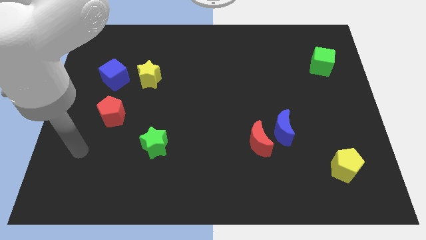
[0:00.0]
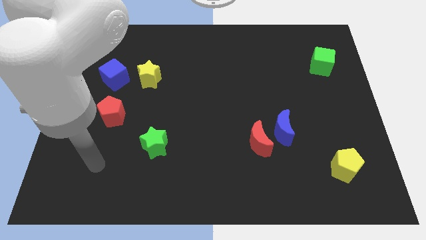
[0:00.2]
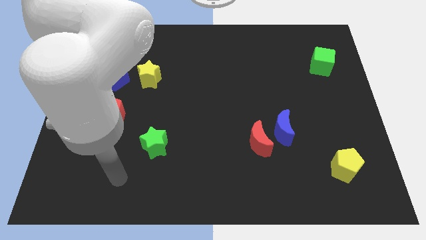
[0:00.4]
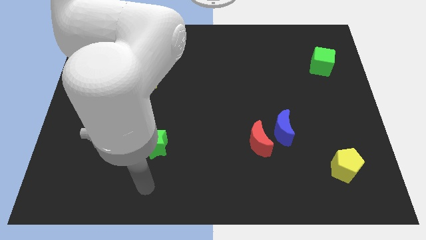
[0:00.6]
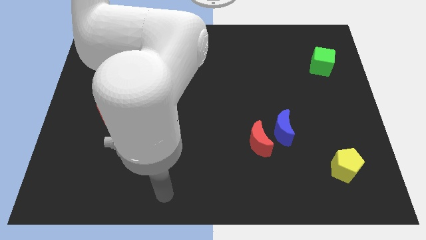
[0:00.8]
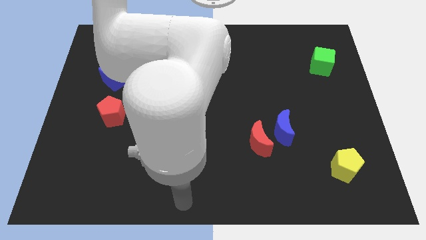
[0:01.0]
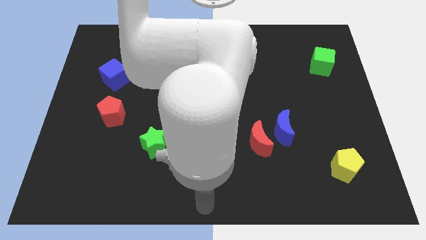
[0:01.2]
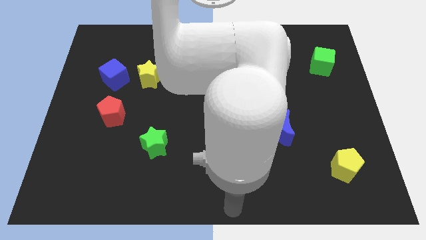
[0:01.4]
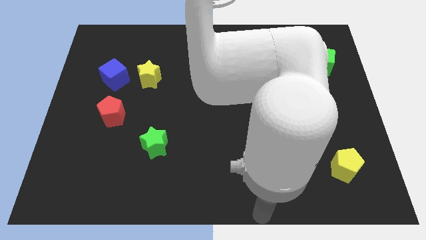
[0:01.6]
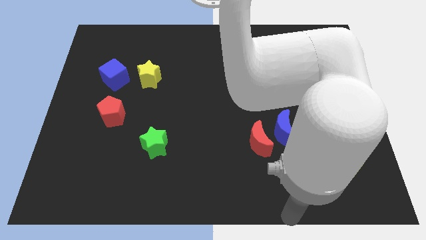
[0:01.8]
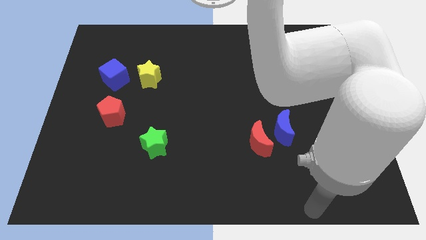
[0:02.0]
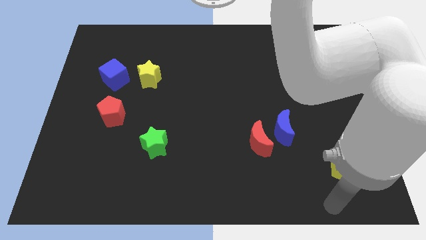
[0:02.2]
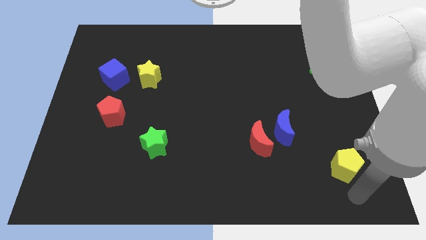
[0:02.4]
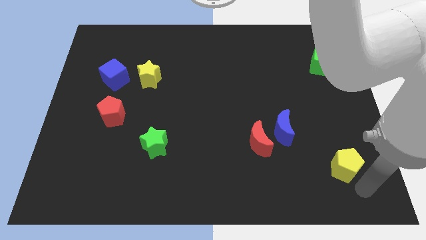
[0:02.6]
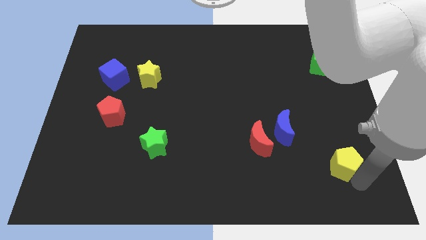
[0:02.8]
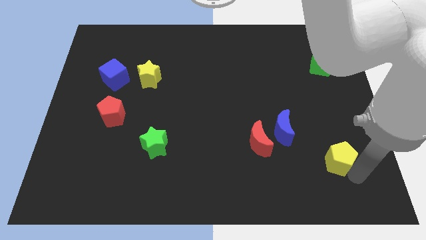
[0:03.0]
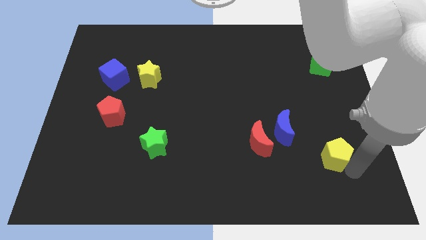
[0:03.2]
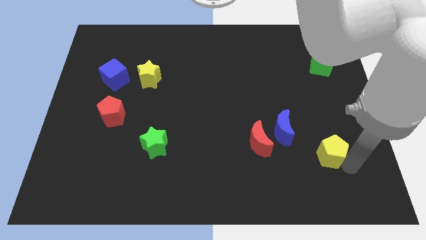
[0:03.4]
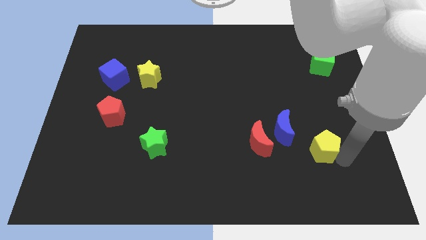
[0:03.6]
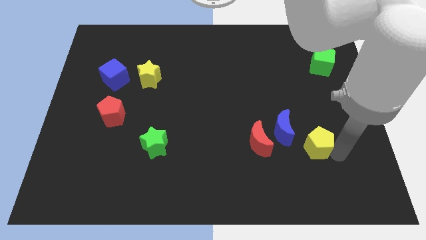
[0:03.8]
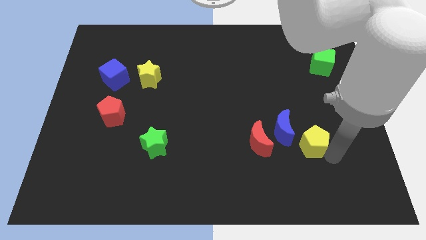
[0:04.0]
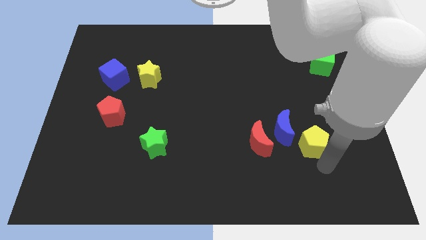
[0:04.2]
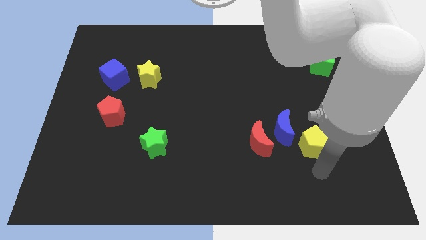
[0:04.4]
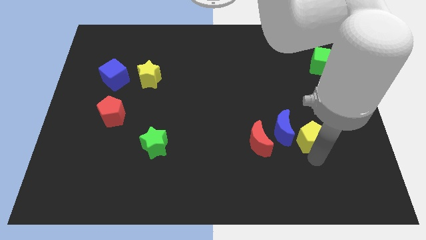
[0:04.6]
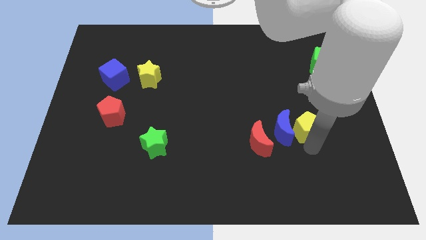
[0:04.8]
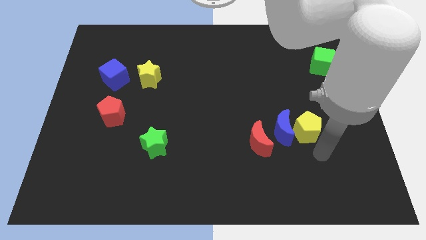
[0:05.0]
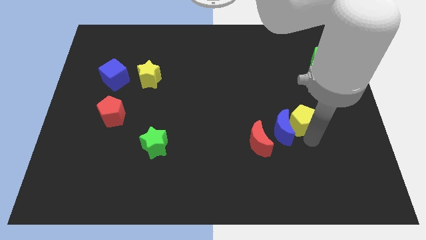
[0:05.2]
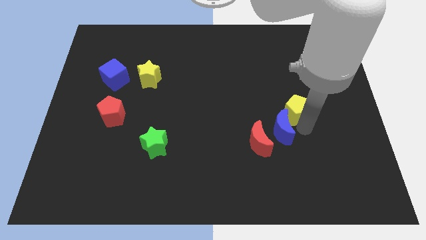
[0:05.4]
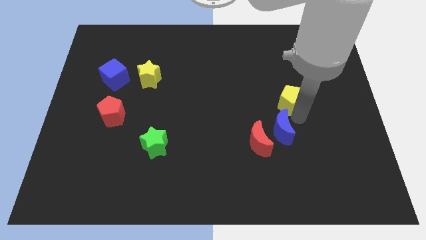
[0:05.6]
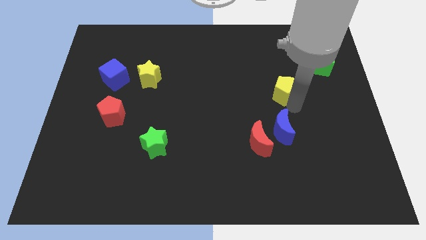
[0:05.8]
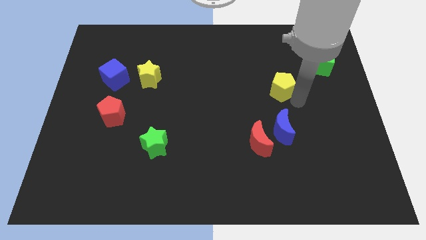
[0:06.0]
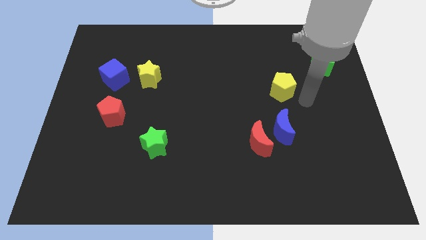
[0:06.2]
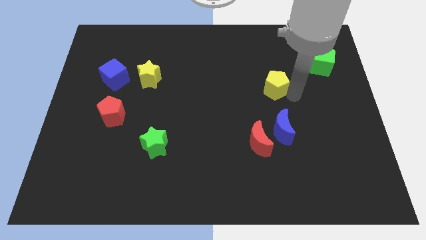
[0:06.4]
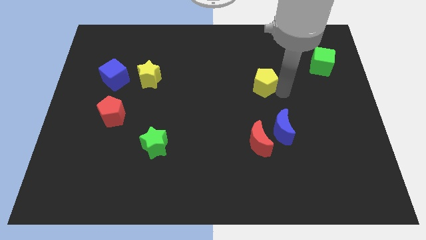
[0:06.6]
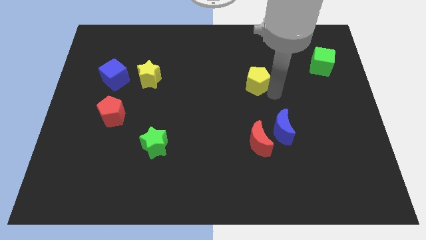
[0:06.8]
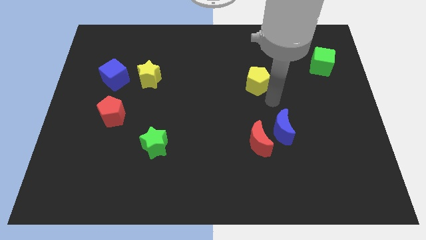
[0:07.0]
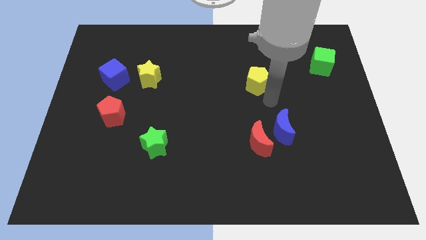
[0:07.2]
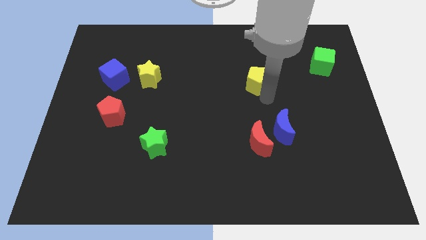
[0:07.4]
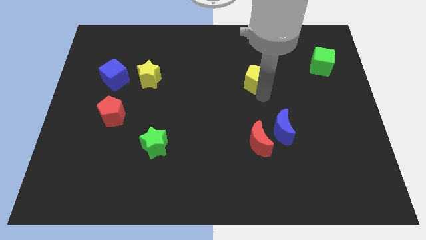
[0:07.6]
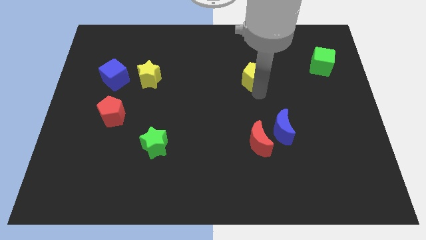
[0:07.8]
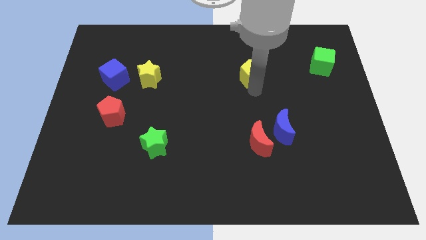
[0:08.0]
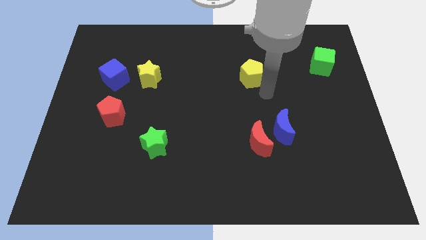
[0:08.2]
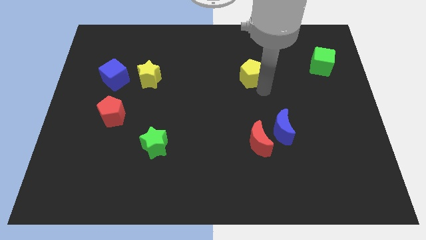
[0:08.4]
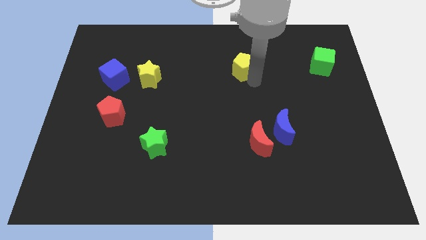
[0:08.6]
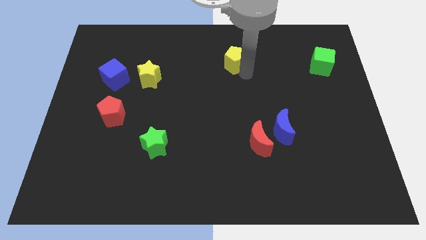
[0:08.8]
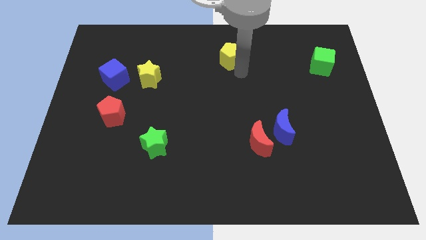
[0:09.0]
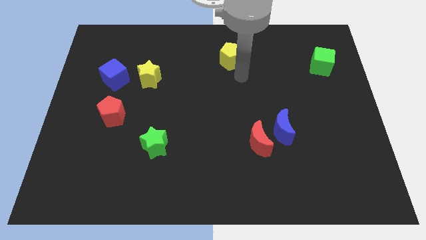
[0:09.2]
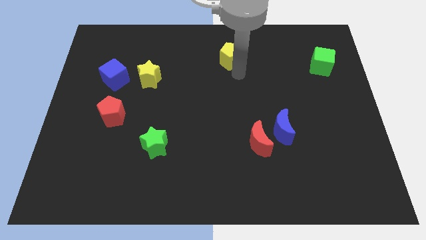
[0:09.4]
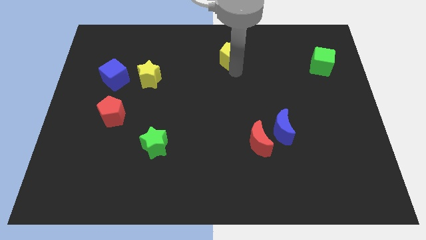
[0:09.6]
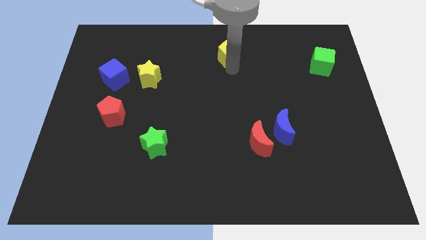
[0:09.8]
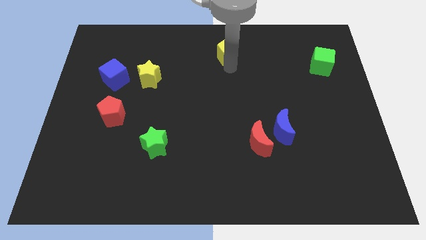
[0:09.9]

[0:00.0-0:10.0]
put the yellow pentagon to the towards your base
